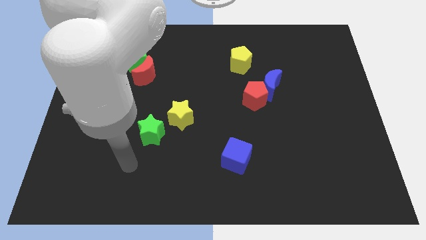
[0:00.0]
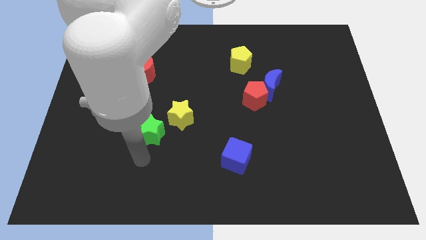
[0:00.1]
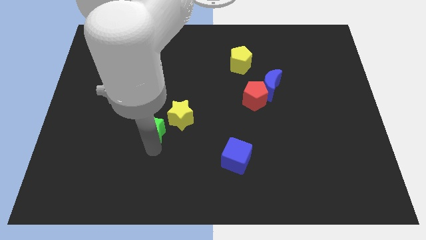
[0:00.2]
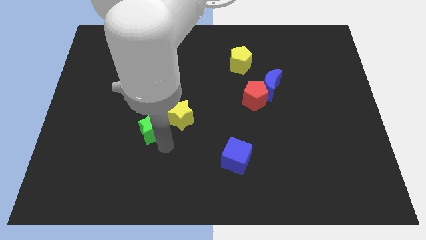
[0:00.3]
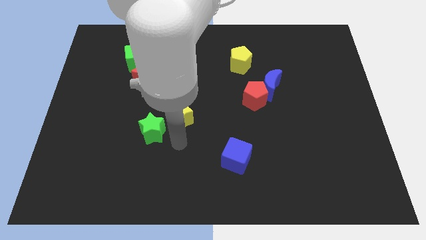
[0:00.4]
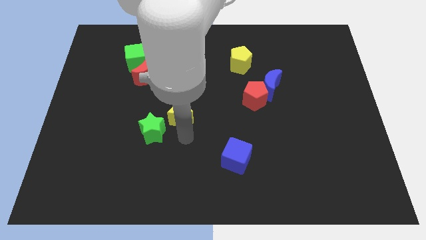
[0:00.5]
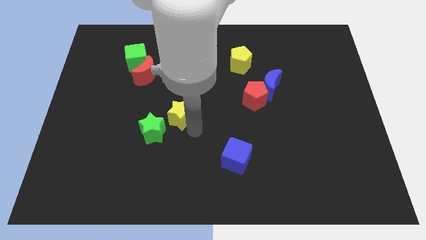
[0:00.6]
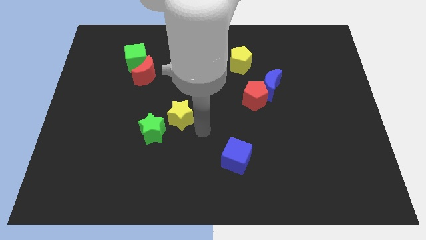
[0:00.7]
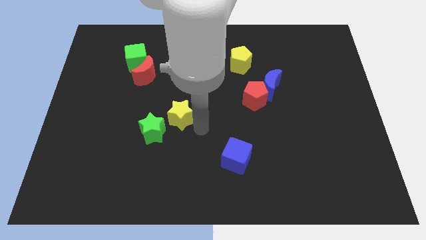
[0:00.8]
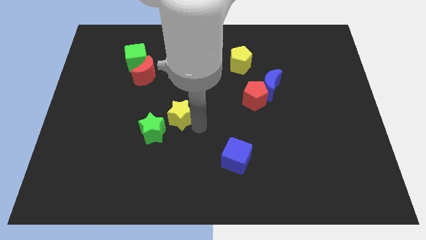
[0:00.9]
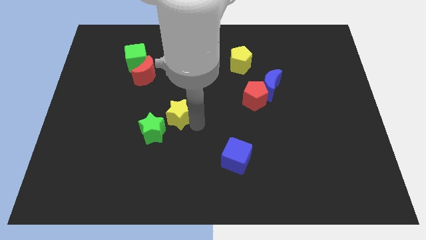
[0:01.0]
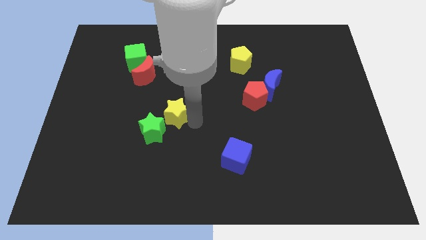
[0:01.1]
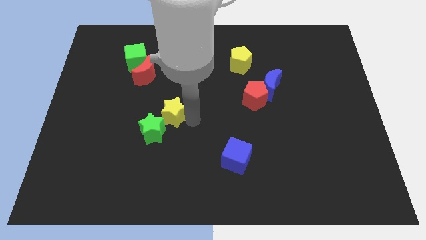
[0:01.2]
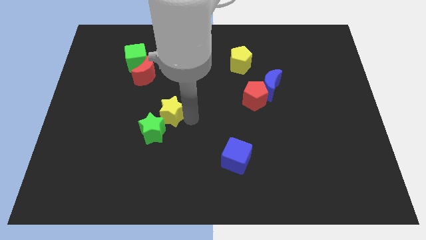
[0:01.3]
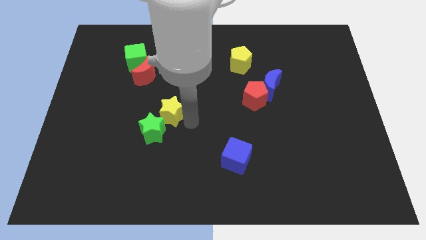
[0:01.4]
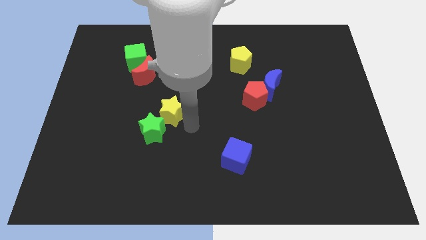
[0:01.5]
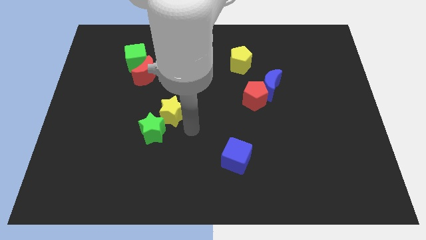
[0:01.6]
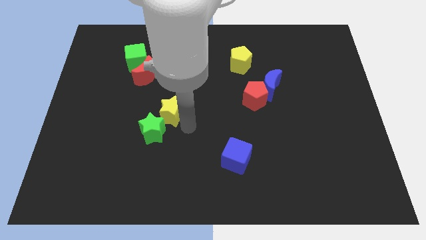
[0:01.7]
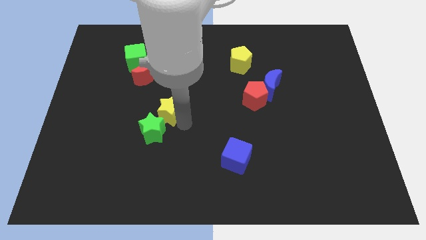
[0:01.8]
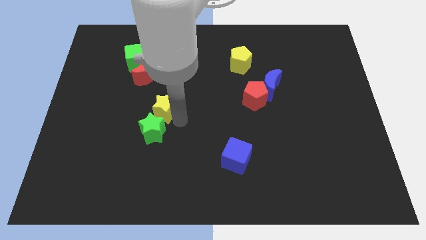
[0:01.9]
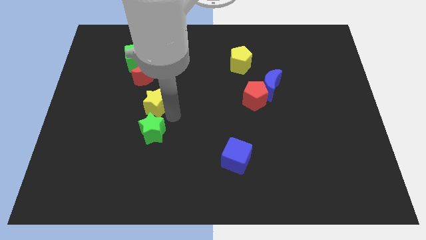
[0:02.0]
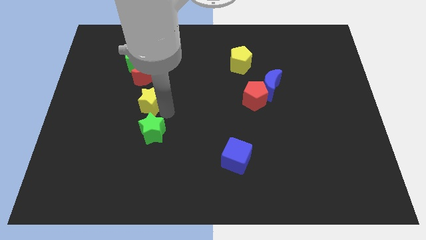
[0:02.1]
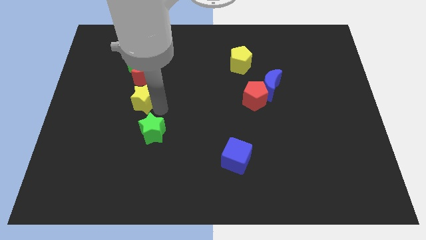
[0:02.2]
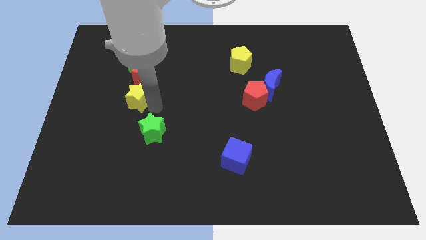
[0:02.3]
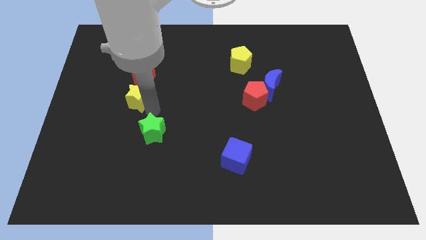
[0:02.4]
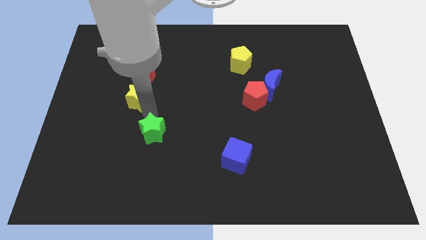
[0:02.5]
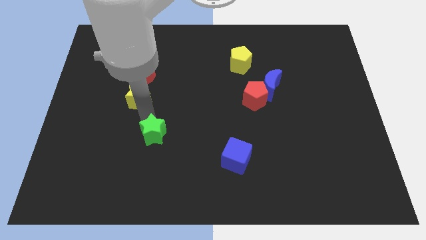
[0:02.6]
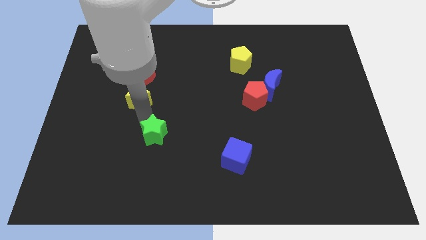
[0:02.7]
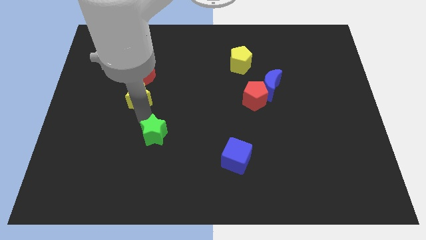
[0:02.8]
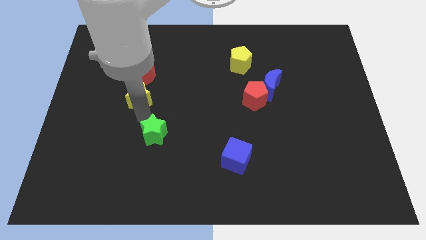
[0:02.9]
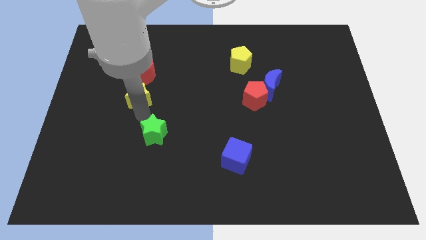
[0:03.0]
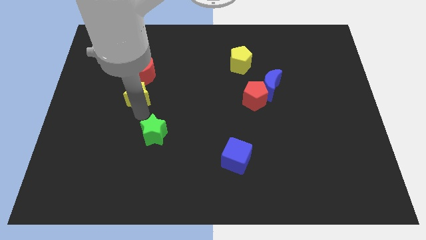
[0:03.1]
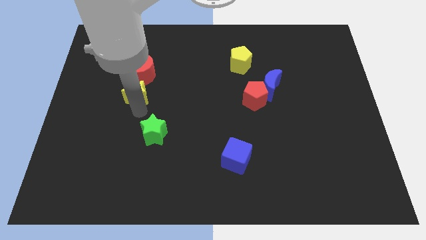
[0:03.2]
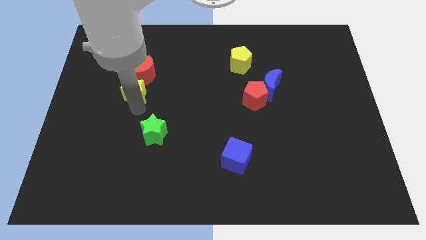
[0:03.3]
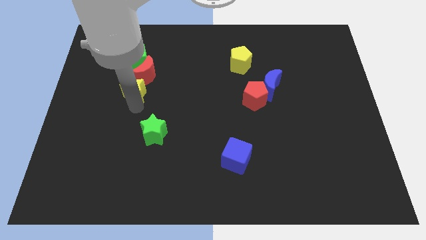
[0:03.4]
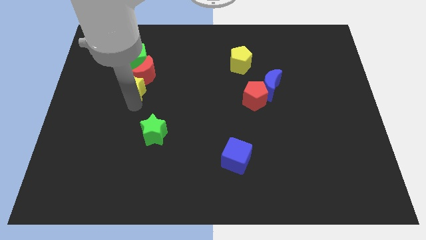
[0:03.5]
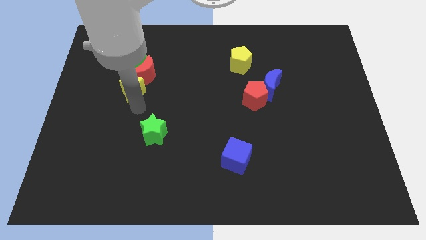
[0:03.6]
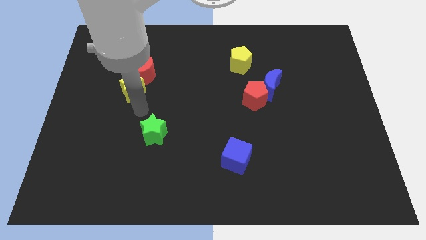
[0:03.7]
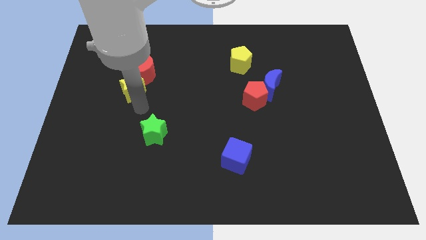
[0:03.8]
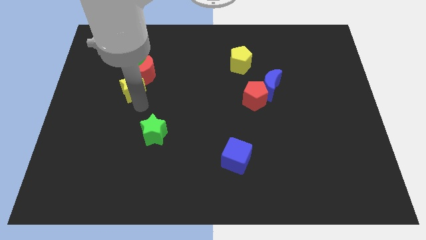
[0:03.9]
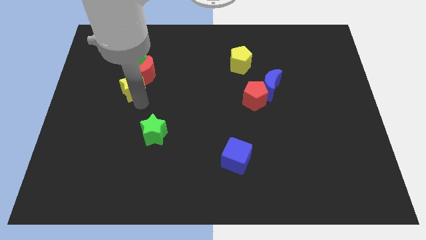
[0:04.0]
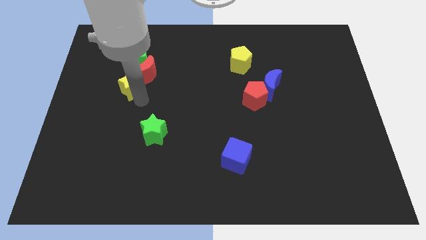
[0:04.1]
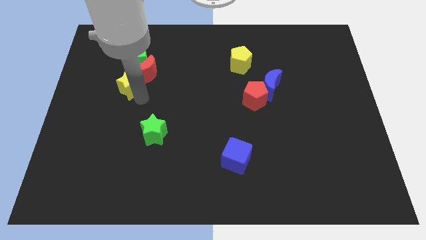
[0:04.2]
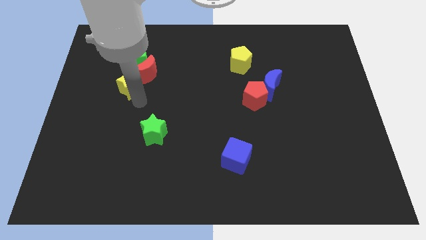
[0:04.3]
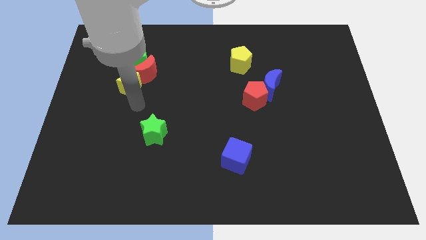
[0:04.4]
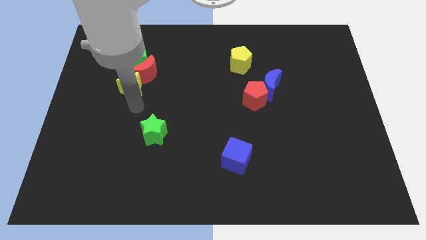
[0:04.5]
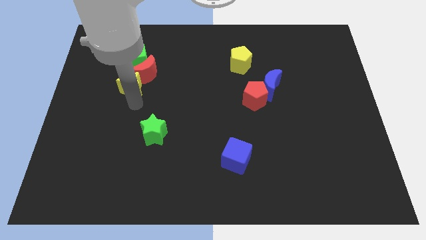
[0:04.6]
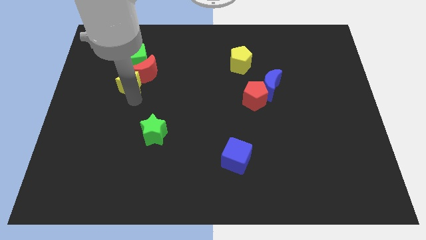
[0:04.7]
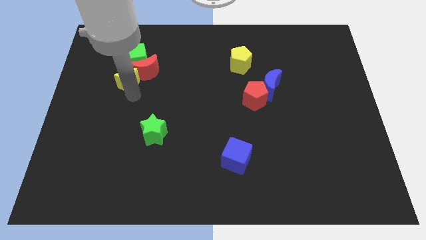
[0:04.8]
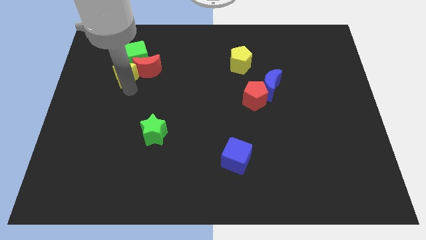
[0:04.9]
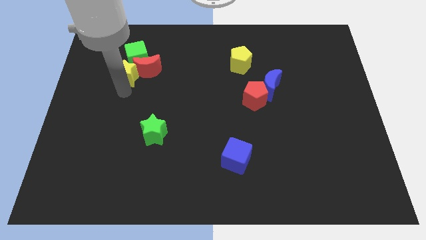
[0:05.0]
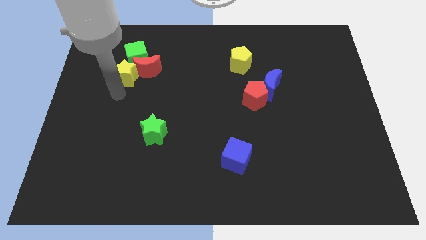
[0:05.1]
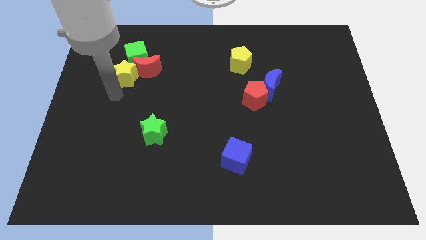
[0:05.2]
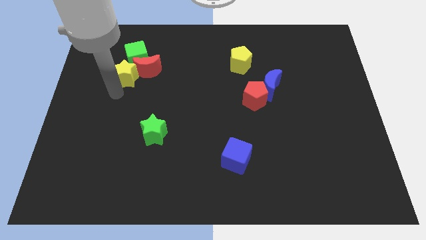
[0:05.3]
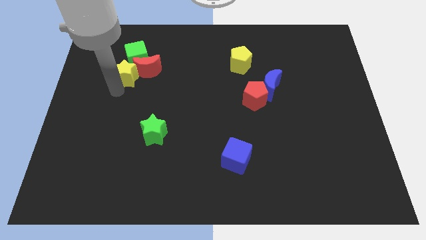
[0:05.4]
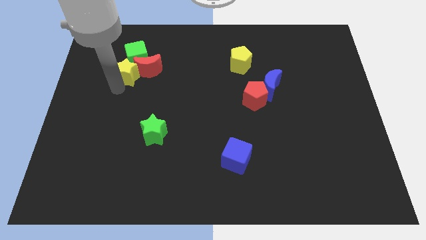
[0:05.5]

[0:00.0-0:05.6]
move the yellow star towards the green cube

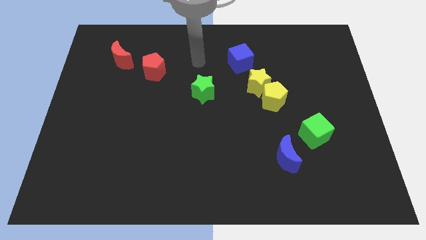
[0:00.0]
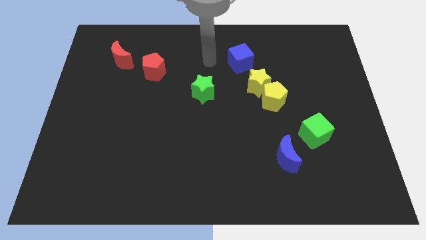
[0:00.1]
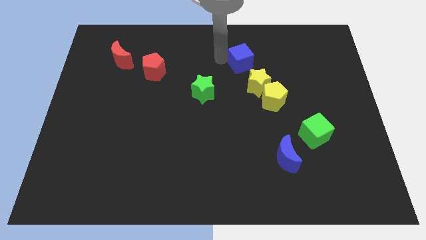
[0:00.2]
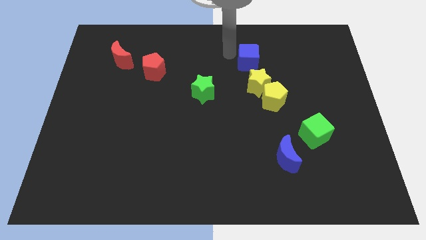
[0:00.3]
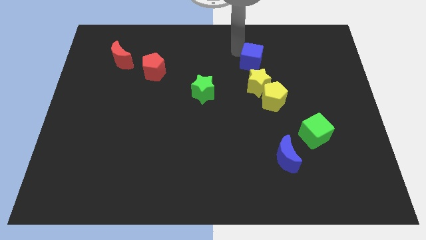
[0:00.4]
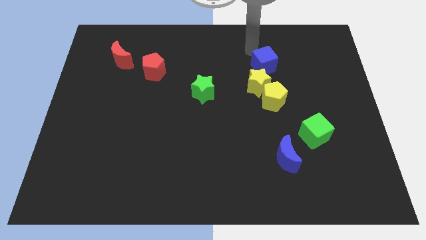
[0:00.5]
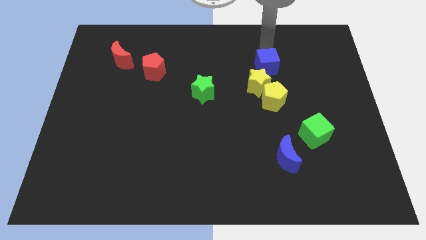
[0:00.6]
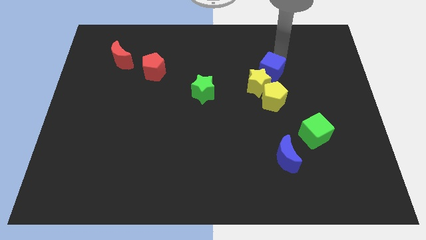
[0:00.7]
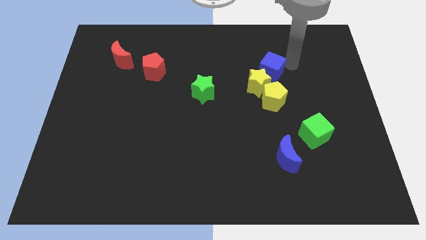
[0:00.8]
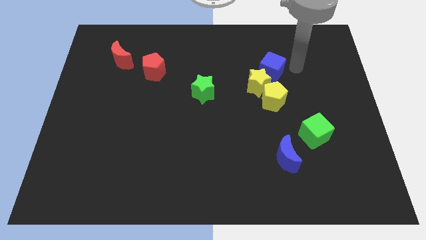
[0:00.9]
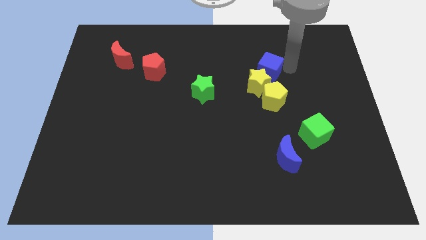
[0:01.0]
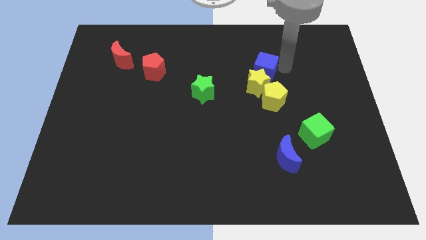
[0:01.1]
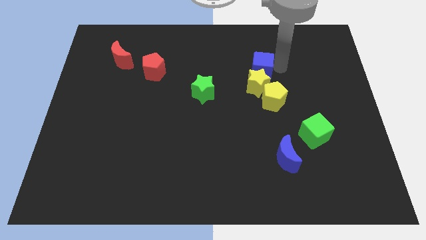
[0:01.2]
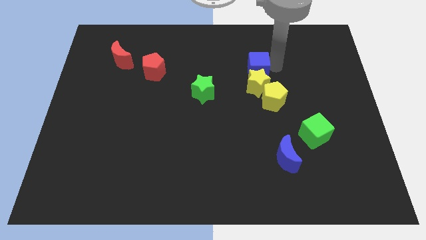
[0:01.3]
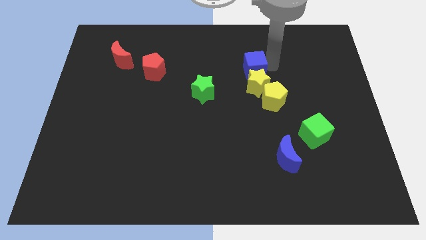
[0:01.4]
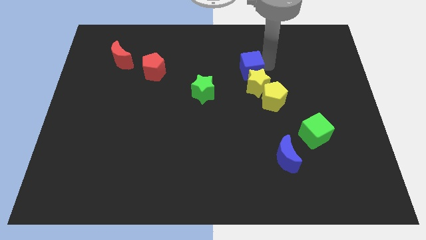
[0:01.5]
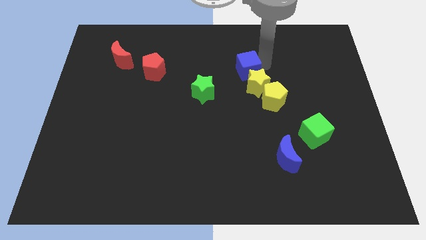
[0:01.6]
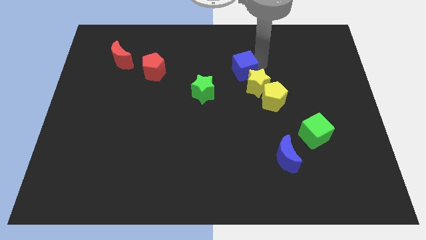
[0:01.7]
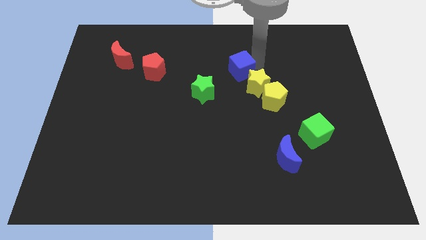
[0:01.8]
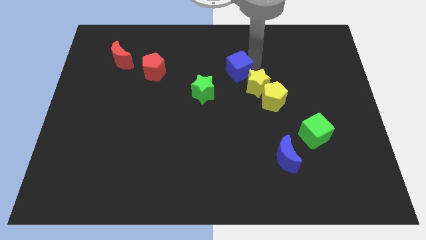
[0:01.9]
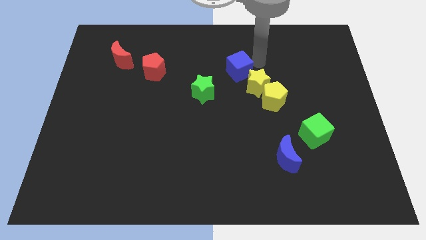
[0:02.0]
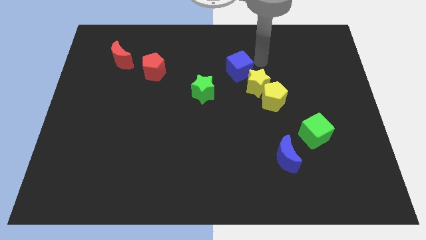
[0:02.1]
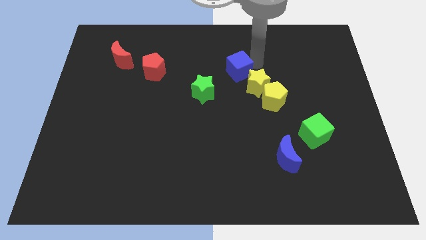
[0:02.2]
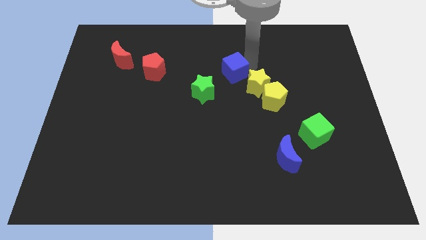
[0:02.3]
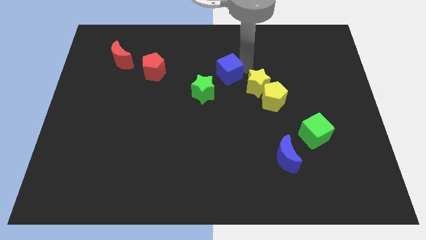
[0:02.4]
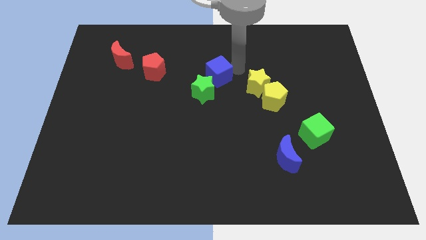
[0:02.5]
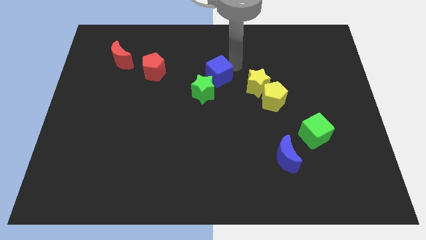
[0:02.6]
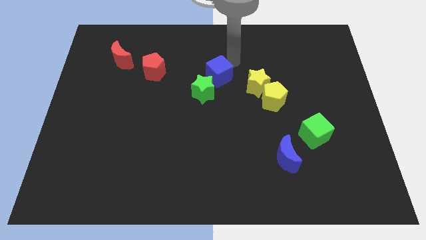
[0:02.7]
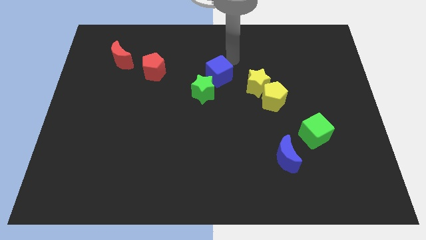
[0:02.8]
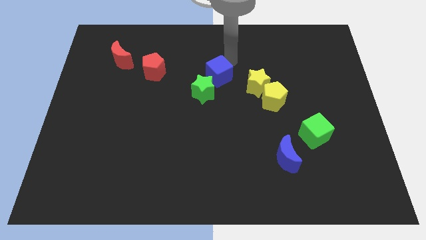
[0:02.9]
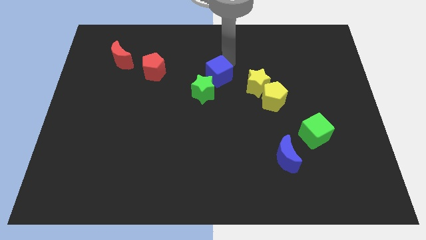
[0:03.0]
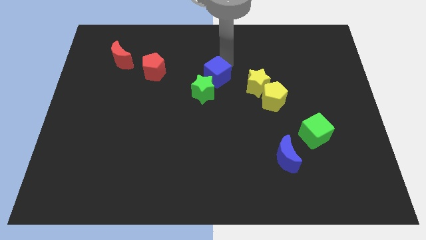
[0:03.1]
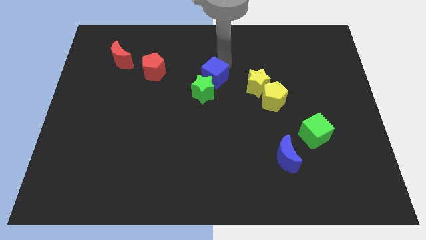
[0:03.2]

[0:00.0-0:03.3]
slide the blue cube next to the green star
